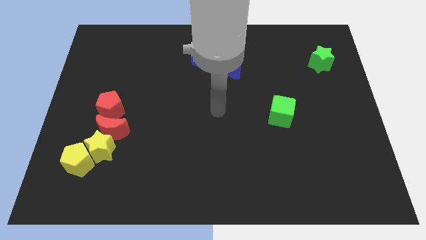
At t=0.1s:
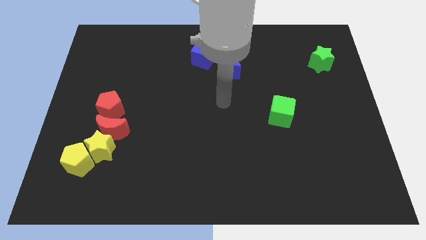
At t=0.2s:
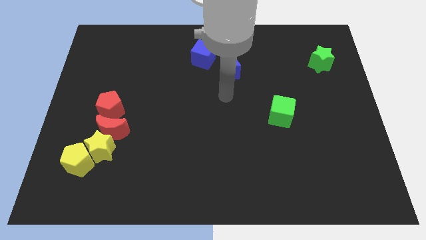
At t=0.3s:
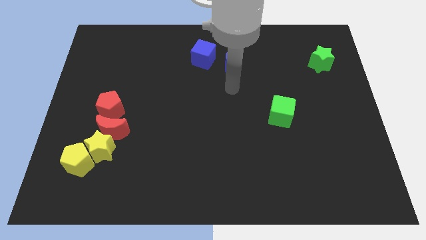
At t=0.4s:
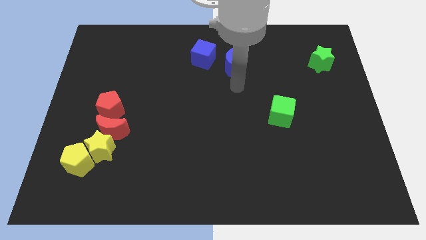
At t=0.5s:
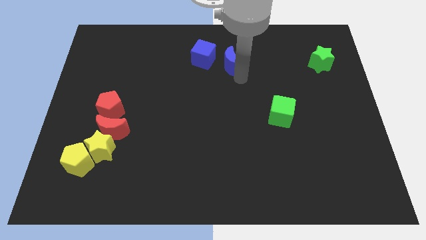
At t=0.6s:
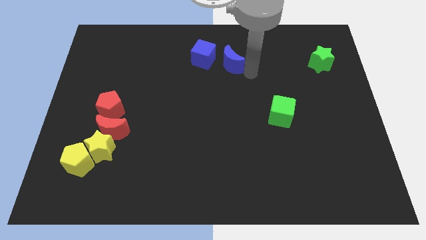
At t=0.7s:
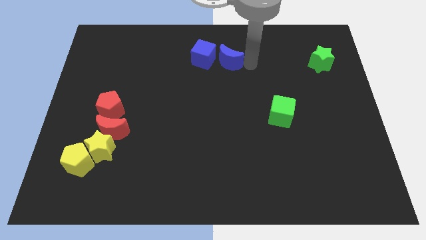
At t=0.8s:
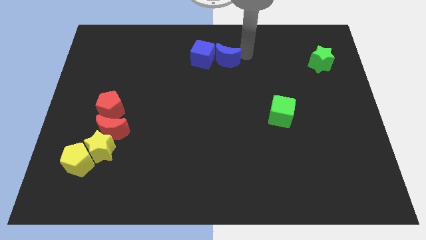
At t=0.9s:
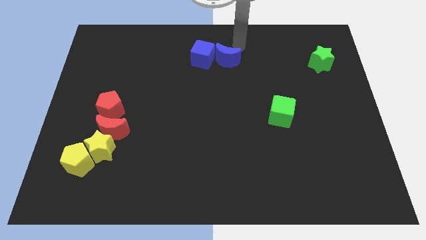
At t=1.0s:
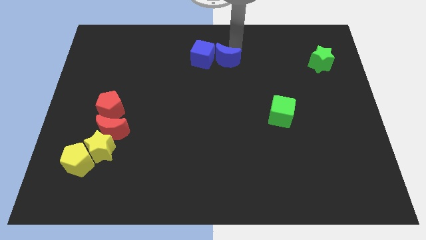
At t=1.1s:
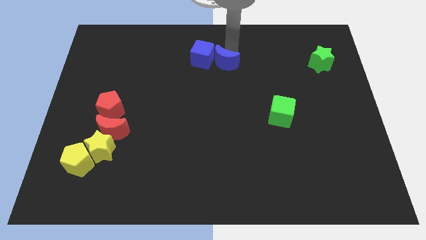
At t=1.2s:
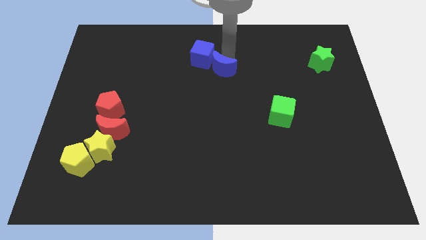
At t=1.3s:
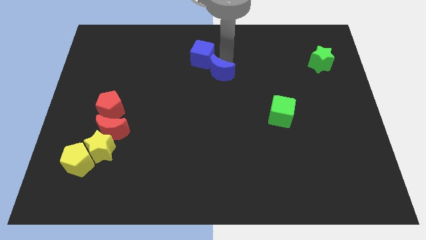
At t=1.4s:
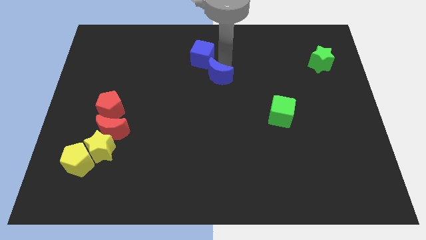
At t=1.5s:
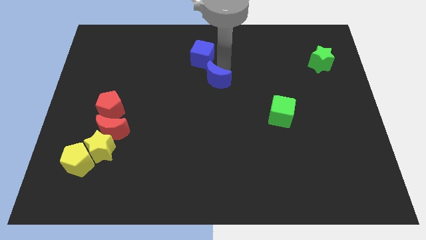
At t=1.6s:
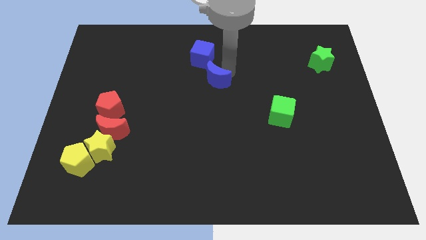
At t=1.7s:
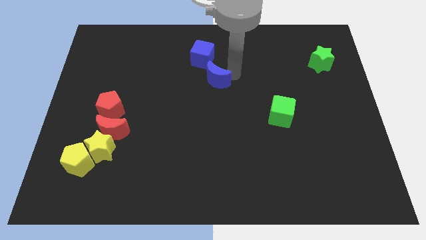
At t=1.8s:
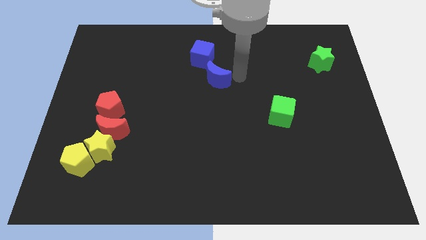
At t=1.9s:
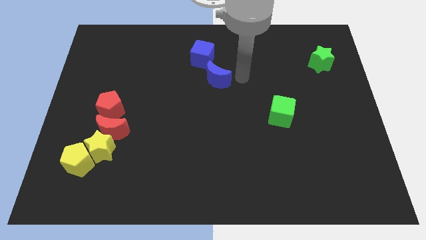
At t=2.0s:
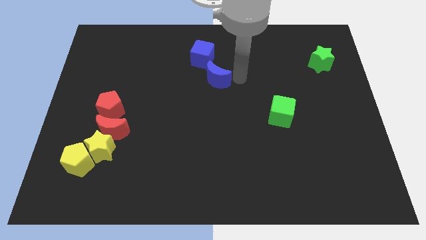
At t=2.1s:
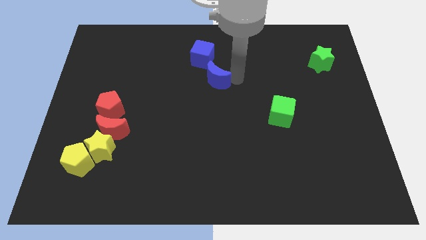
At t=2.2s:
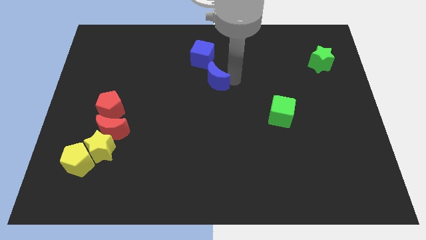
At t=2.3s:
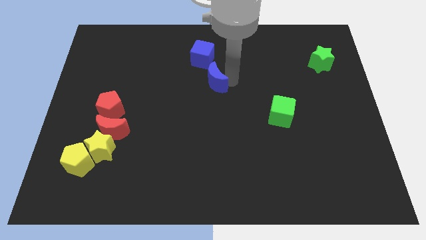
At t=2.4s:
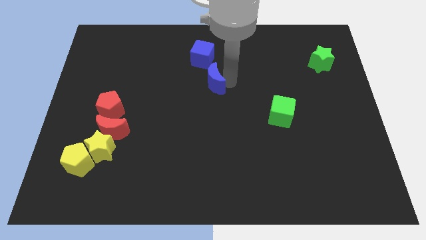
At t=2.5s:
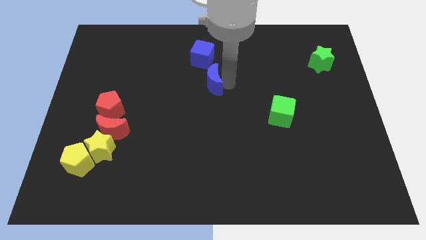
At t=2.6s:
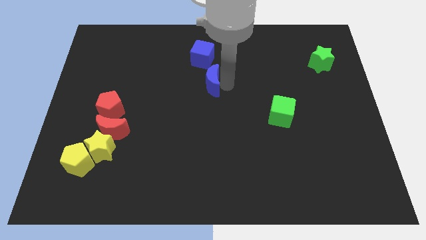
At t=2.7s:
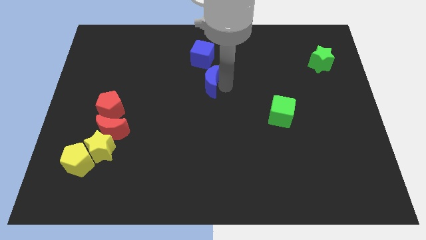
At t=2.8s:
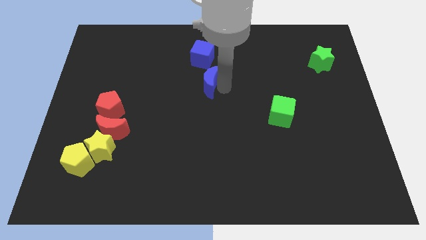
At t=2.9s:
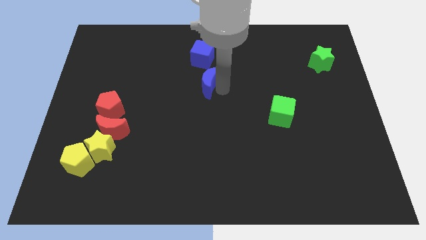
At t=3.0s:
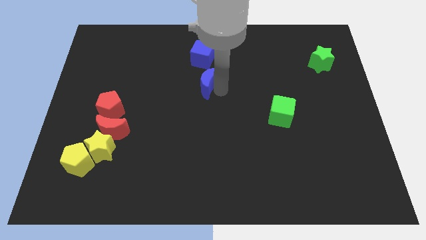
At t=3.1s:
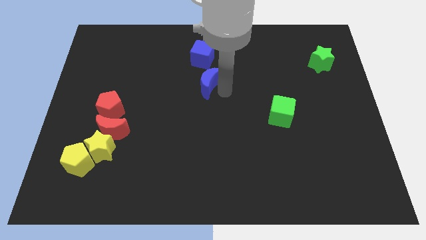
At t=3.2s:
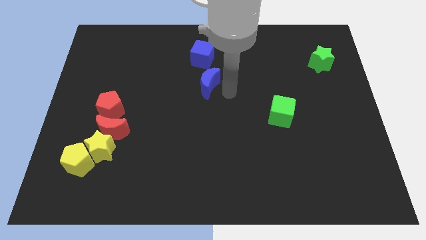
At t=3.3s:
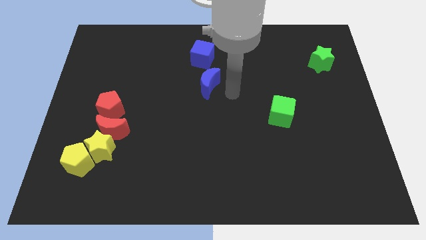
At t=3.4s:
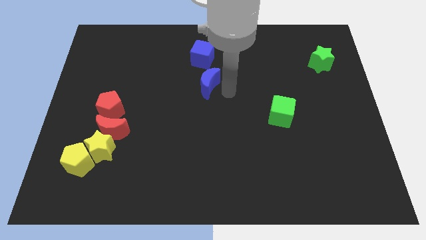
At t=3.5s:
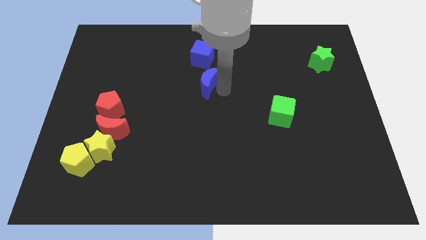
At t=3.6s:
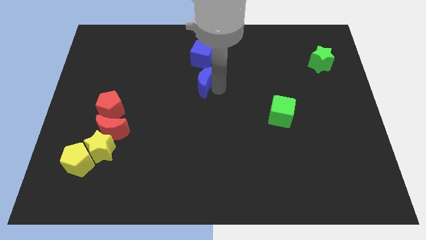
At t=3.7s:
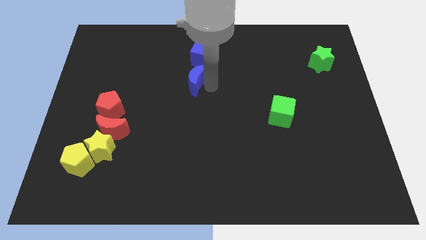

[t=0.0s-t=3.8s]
slightly push the blue moon to the left

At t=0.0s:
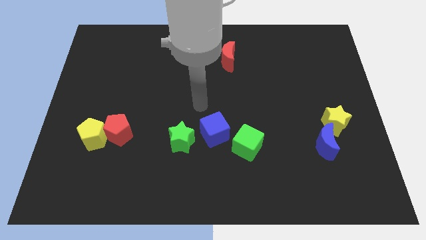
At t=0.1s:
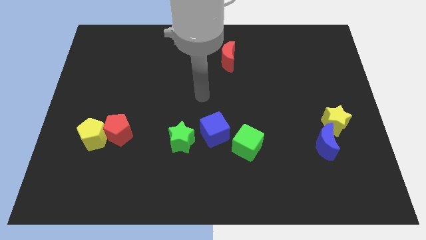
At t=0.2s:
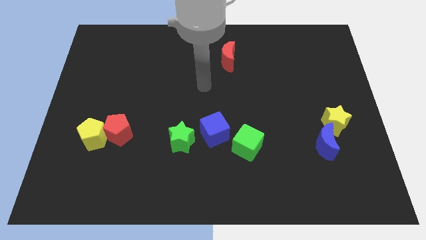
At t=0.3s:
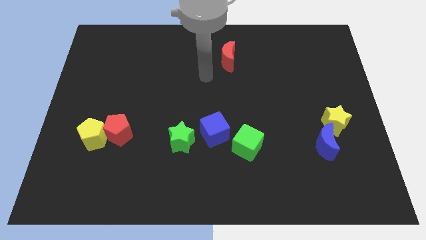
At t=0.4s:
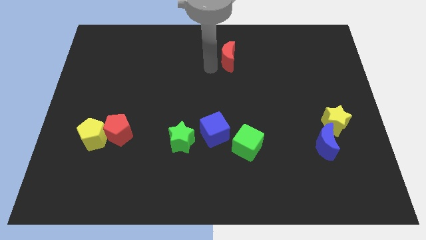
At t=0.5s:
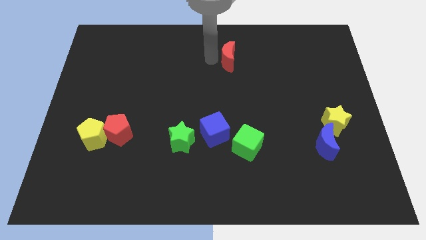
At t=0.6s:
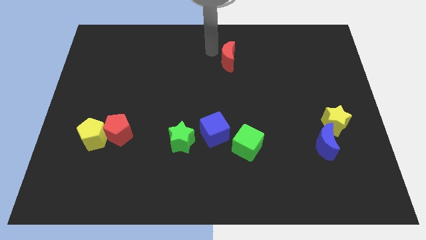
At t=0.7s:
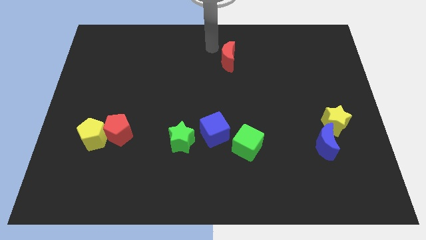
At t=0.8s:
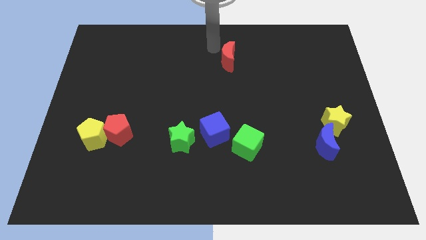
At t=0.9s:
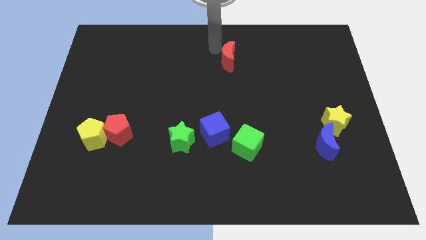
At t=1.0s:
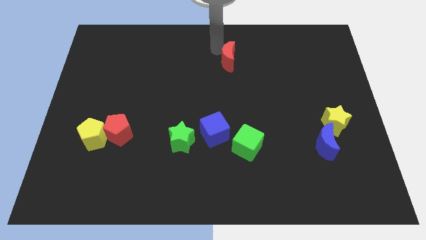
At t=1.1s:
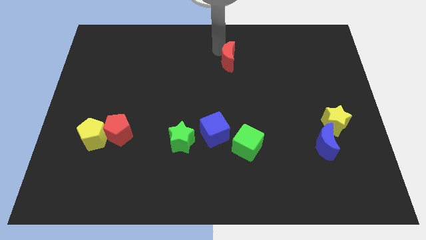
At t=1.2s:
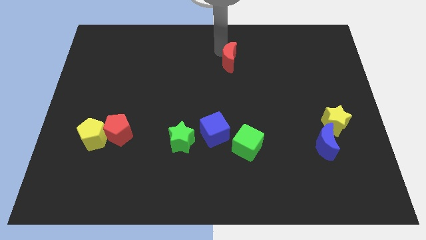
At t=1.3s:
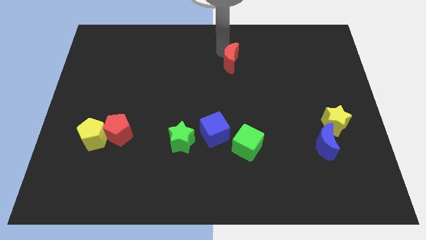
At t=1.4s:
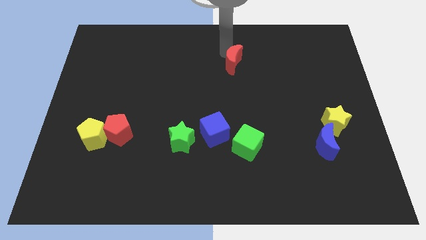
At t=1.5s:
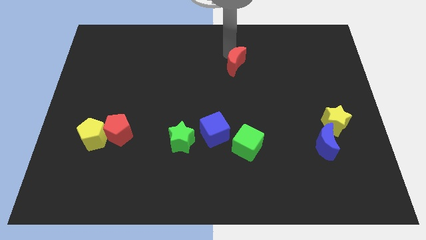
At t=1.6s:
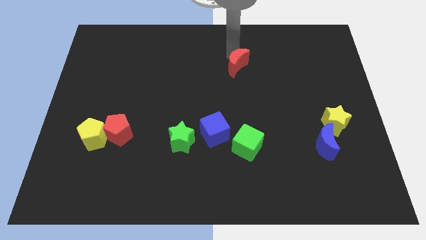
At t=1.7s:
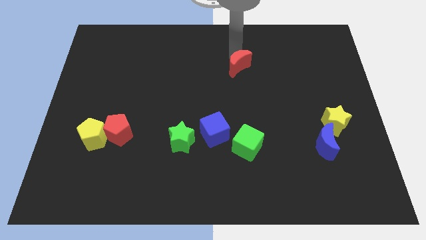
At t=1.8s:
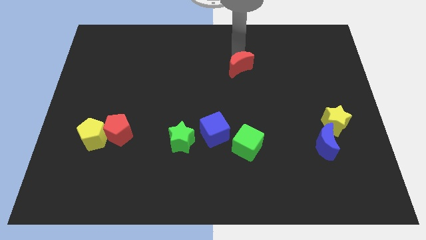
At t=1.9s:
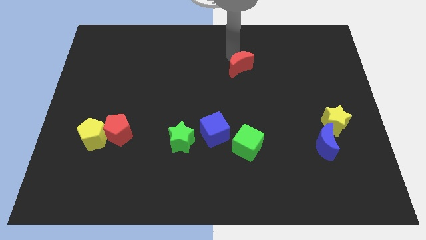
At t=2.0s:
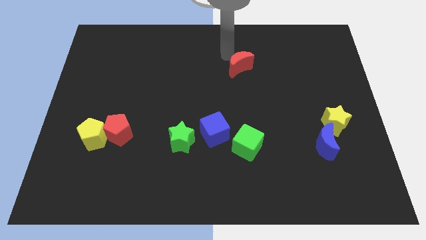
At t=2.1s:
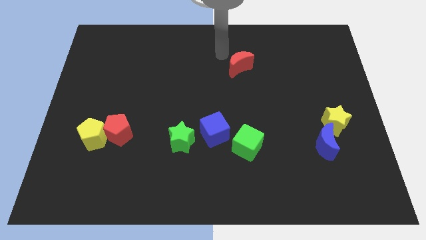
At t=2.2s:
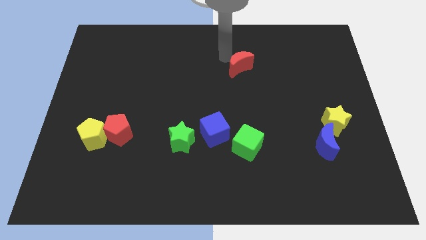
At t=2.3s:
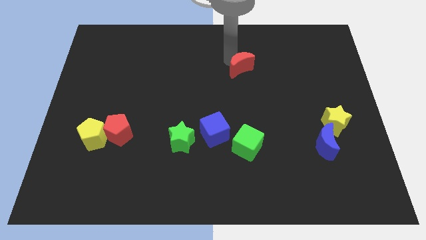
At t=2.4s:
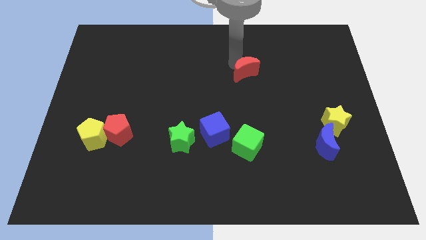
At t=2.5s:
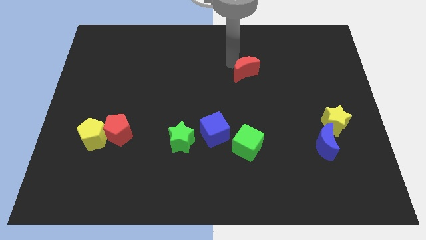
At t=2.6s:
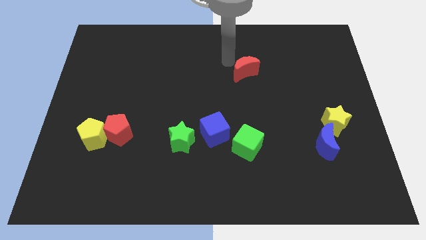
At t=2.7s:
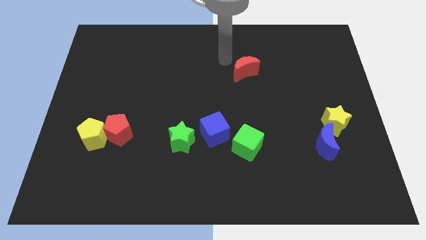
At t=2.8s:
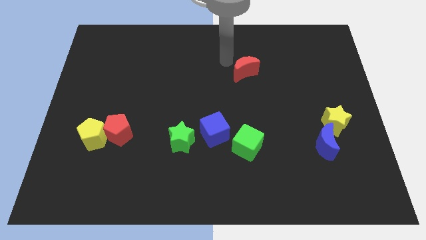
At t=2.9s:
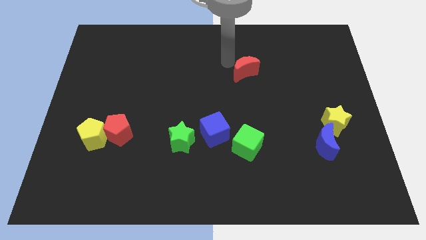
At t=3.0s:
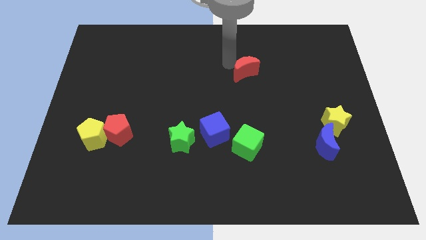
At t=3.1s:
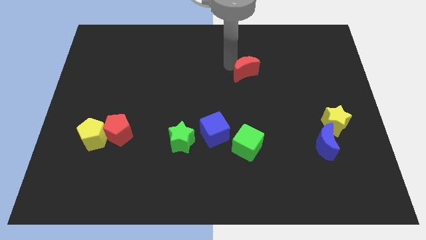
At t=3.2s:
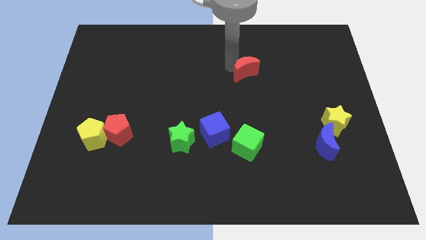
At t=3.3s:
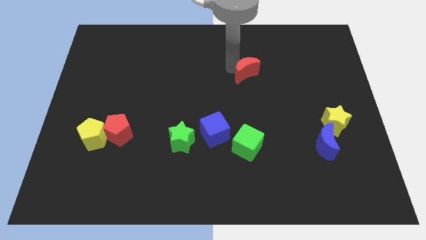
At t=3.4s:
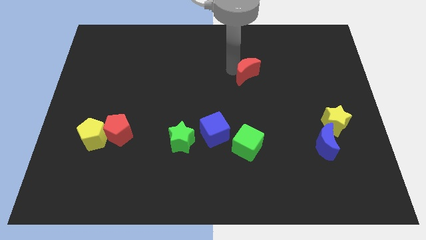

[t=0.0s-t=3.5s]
move the red moon a little bit down and right diagonally

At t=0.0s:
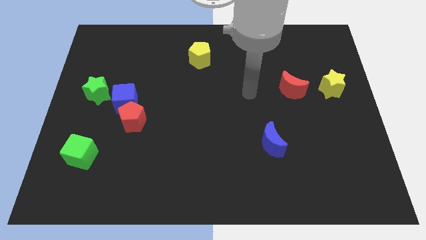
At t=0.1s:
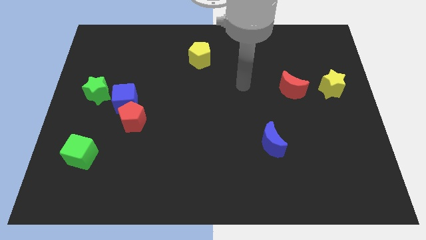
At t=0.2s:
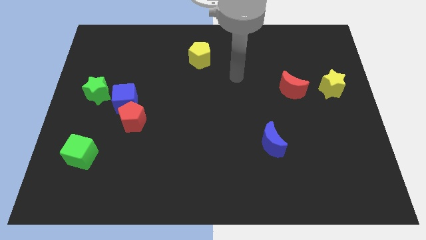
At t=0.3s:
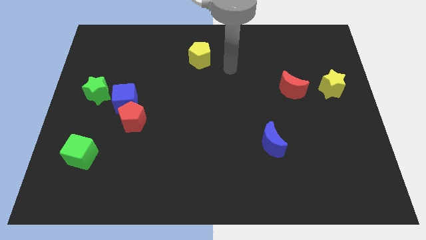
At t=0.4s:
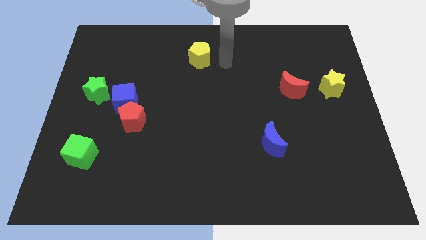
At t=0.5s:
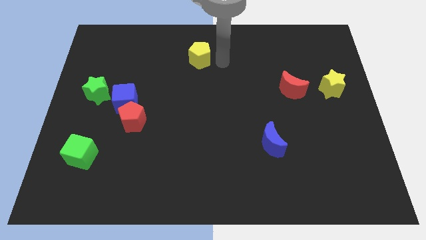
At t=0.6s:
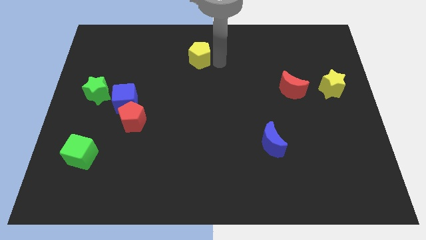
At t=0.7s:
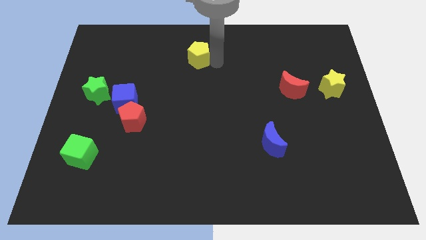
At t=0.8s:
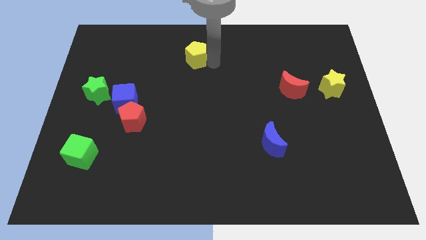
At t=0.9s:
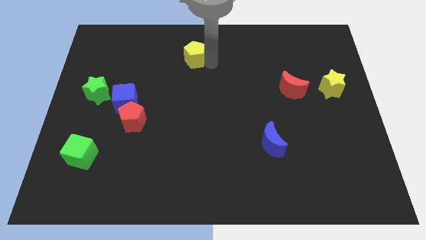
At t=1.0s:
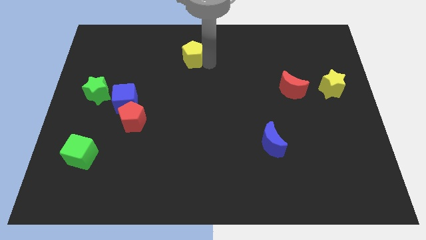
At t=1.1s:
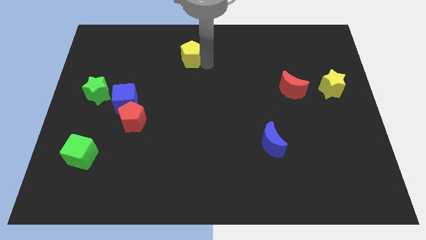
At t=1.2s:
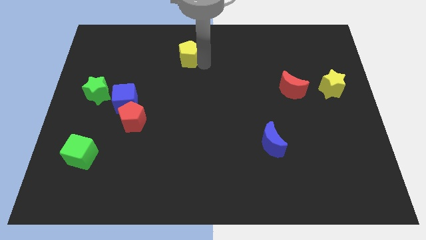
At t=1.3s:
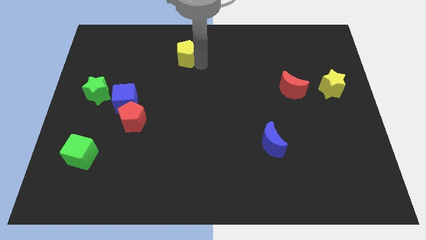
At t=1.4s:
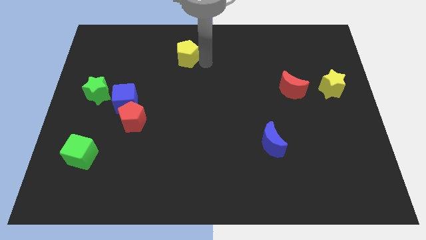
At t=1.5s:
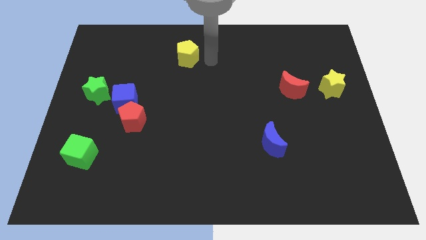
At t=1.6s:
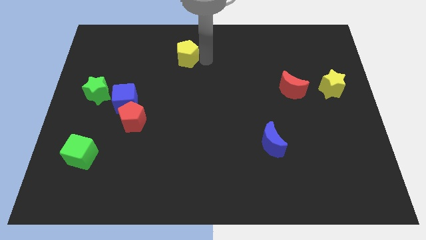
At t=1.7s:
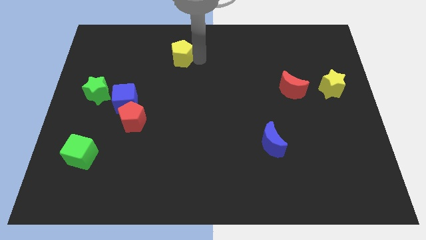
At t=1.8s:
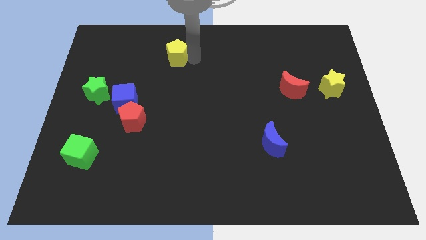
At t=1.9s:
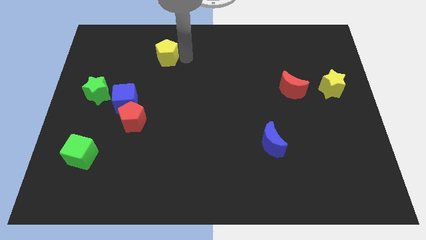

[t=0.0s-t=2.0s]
slightly slide the yellow pentagon to the left
